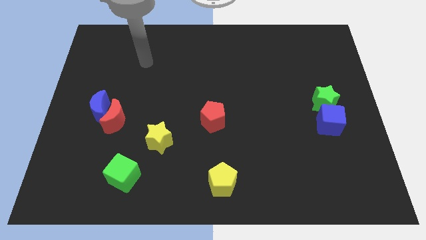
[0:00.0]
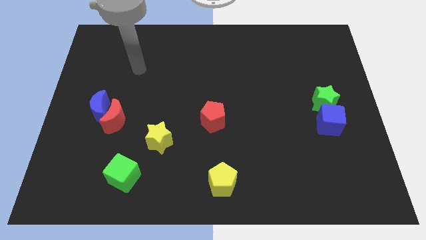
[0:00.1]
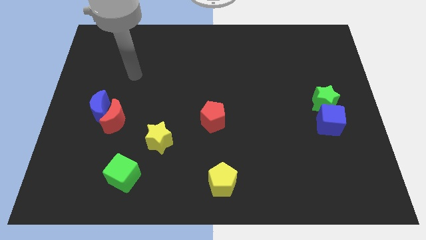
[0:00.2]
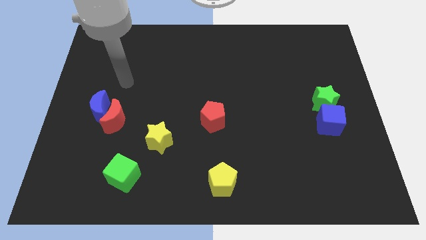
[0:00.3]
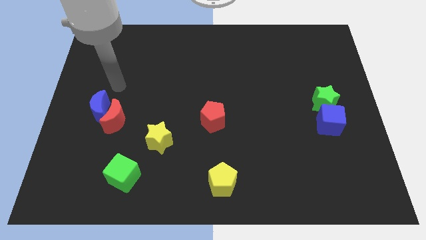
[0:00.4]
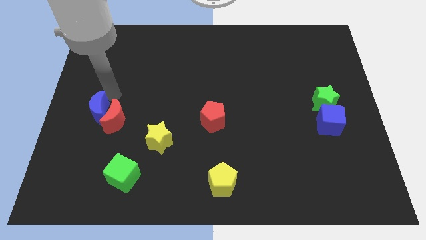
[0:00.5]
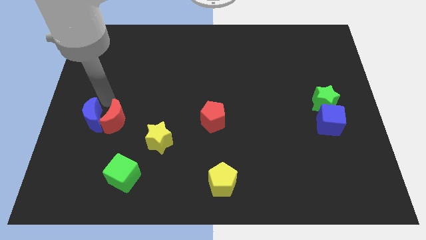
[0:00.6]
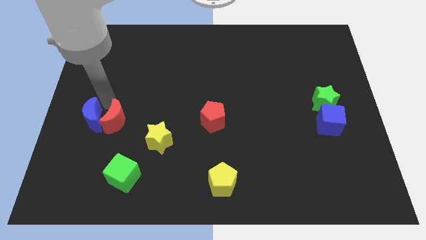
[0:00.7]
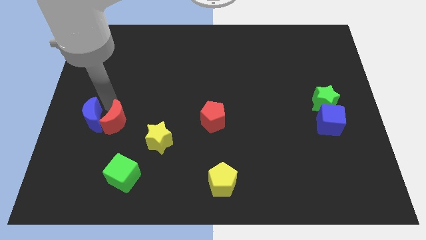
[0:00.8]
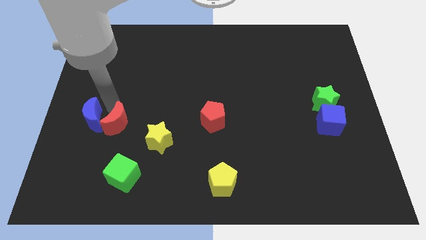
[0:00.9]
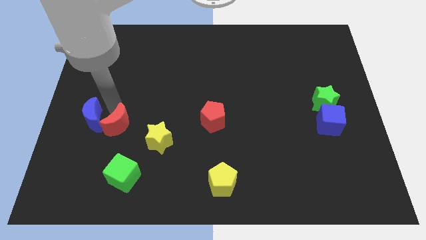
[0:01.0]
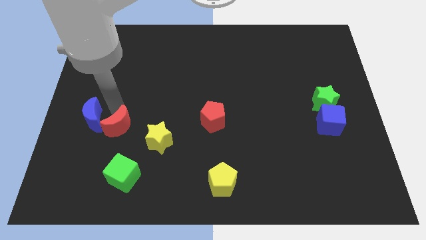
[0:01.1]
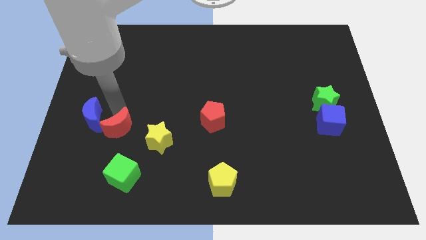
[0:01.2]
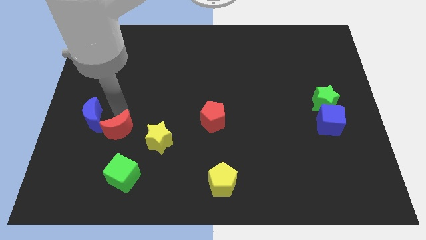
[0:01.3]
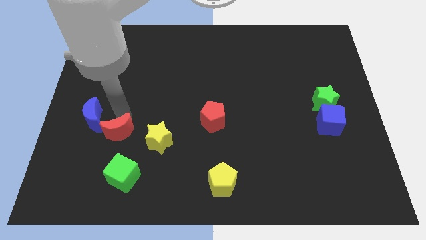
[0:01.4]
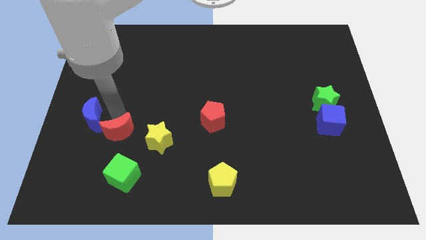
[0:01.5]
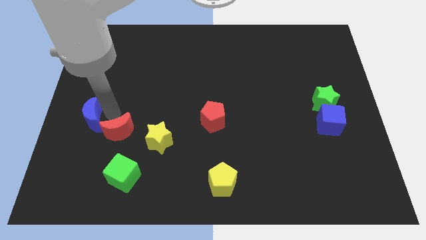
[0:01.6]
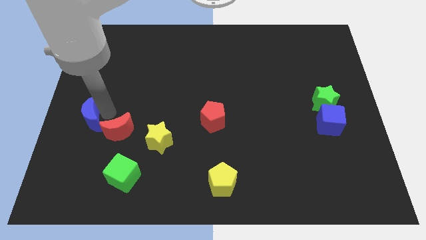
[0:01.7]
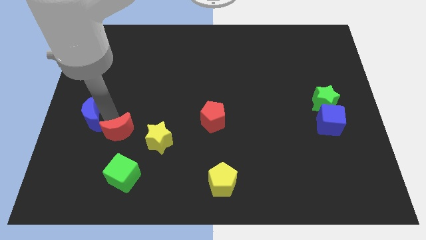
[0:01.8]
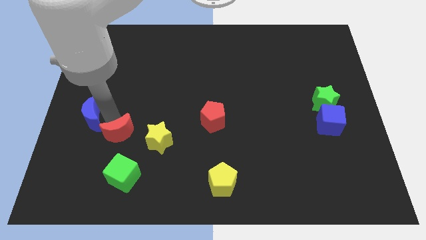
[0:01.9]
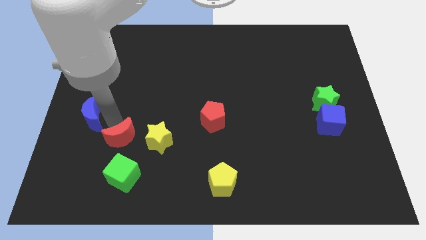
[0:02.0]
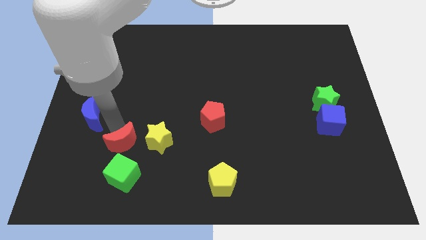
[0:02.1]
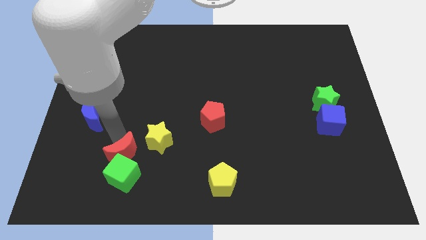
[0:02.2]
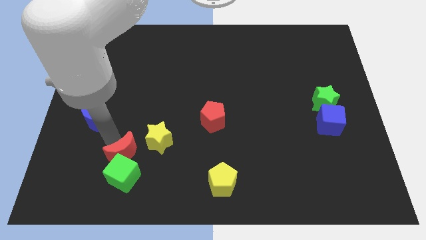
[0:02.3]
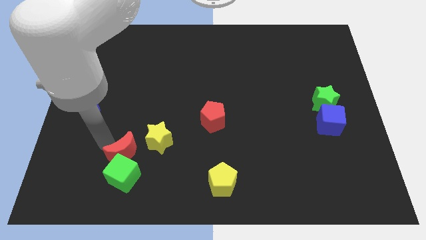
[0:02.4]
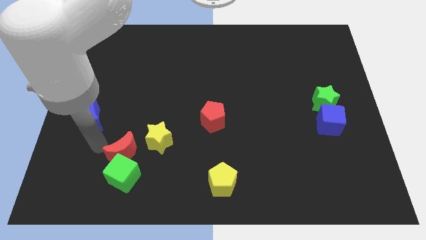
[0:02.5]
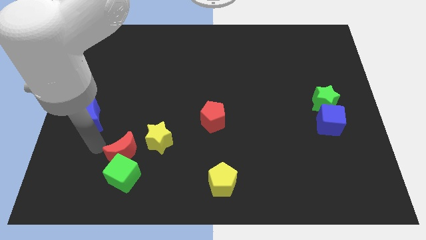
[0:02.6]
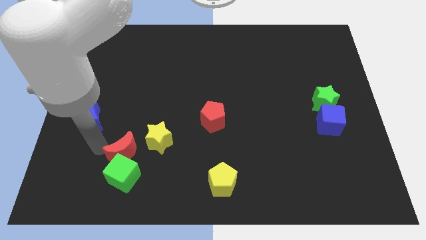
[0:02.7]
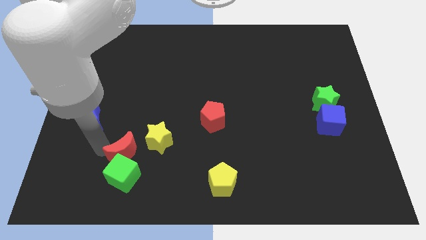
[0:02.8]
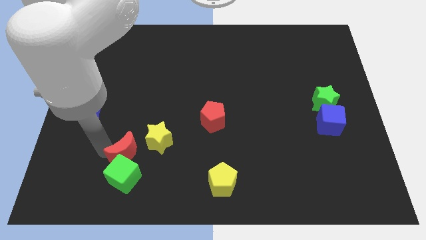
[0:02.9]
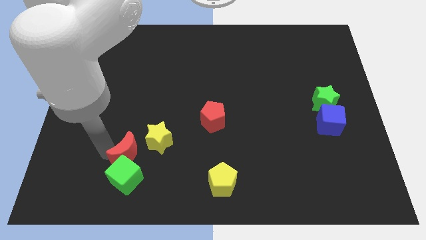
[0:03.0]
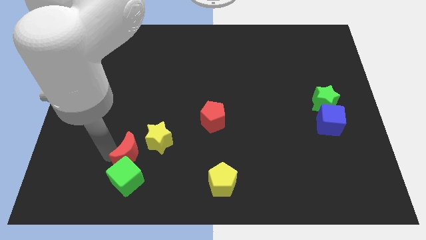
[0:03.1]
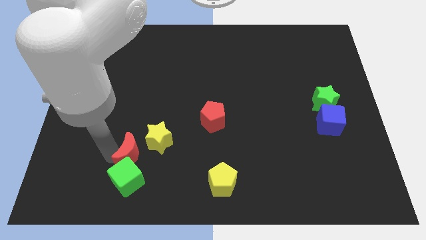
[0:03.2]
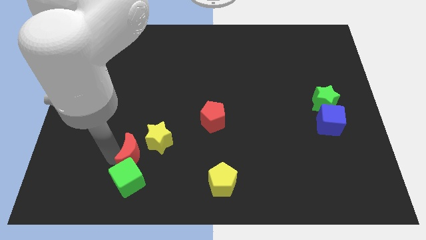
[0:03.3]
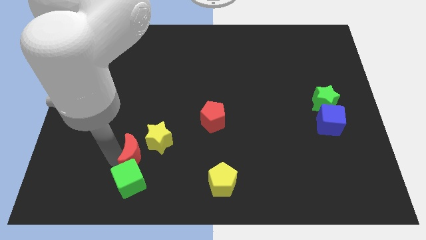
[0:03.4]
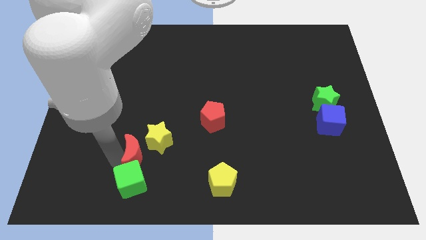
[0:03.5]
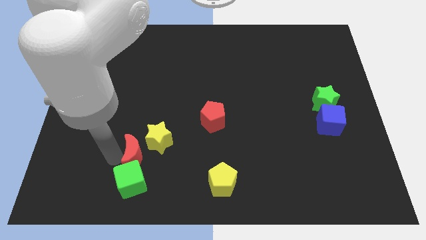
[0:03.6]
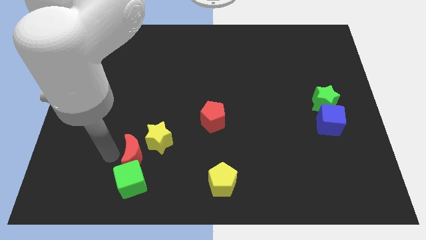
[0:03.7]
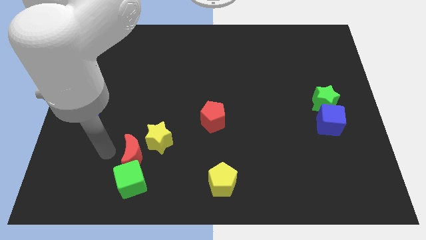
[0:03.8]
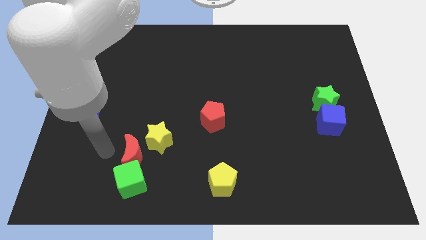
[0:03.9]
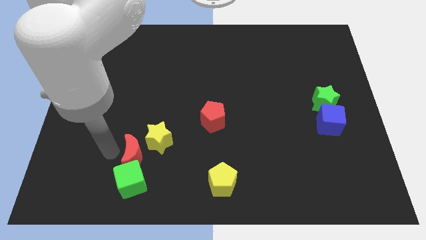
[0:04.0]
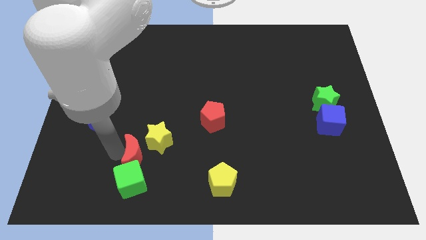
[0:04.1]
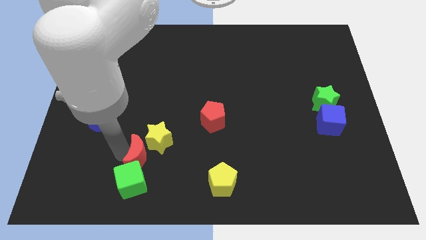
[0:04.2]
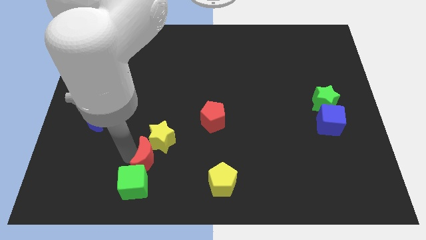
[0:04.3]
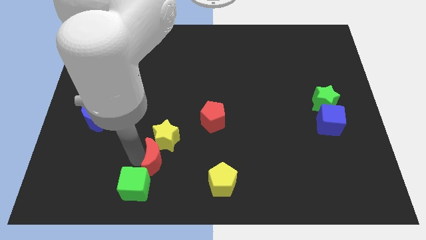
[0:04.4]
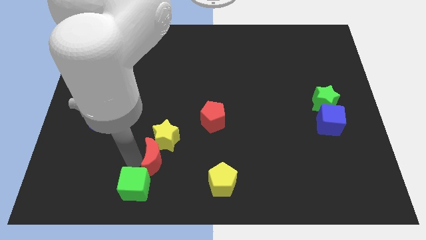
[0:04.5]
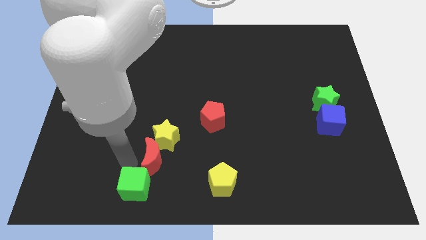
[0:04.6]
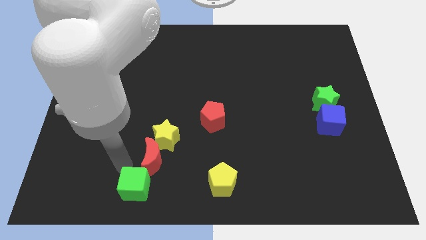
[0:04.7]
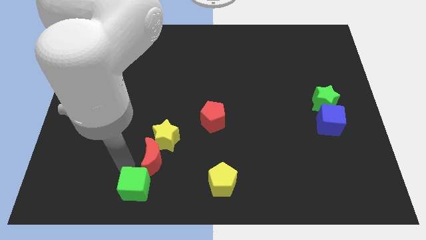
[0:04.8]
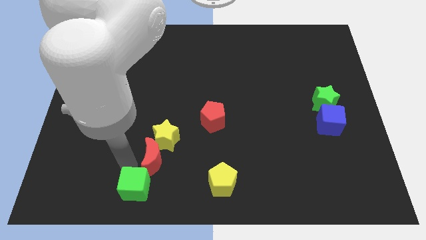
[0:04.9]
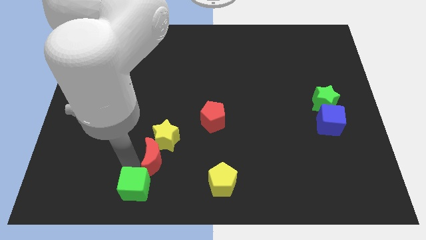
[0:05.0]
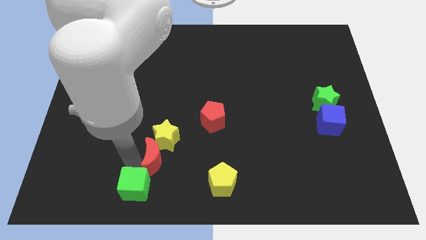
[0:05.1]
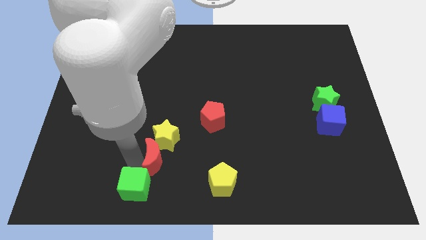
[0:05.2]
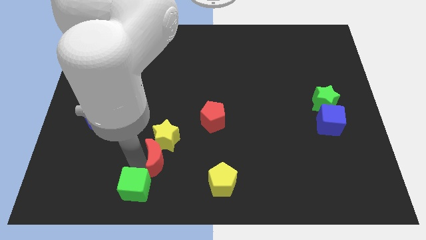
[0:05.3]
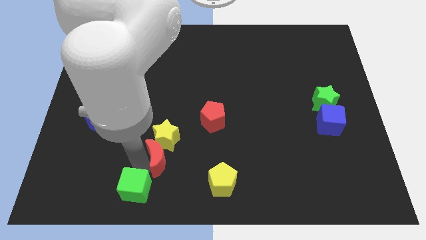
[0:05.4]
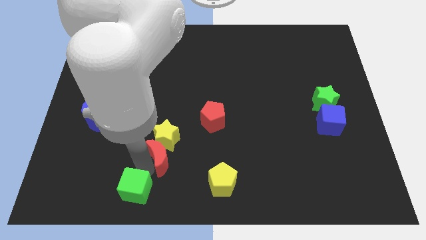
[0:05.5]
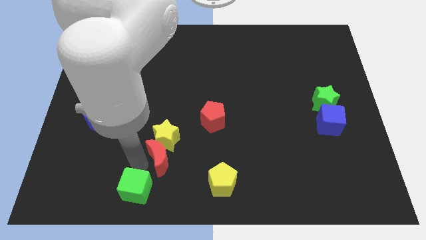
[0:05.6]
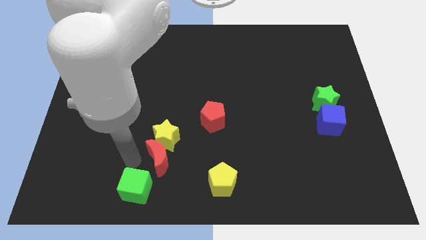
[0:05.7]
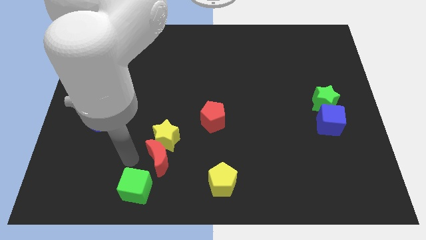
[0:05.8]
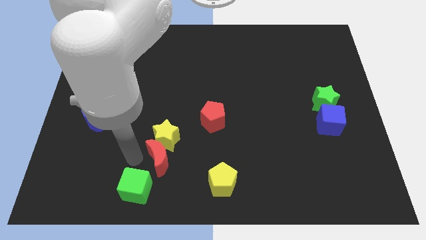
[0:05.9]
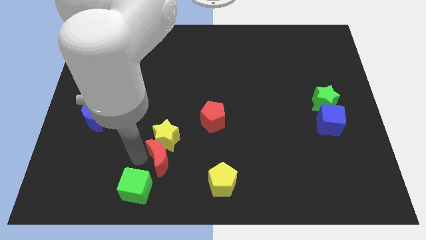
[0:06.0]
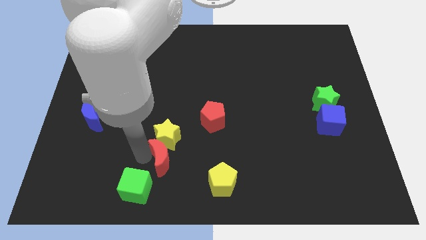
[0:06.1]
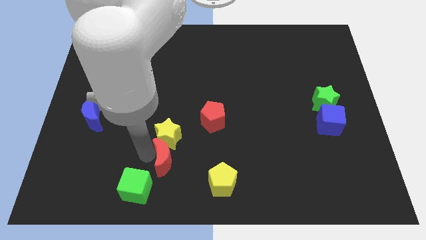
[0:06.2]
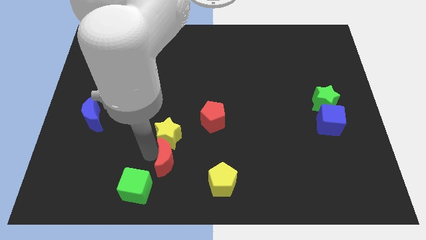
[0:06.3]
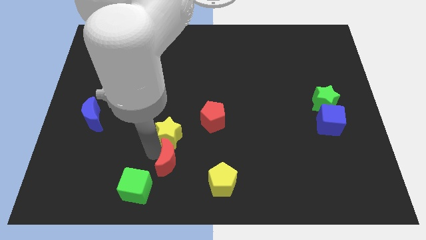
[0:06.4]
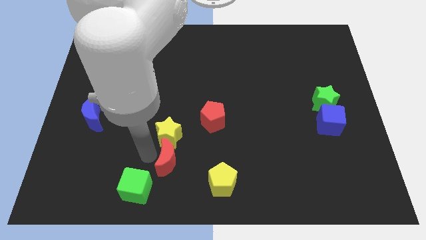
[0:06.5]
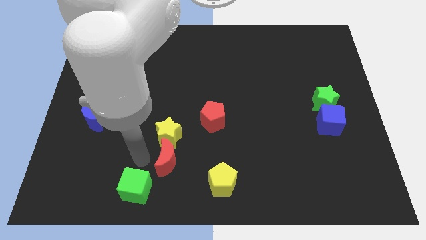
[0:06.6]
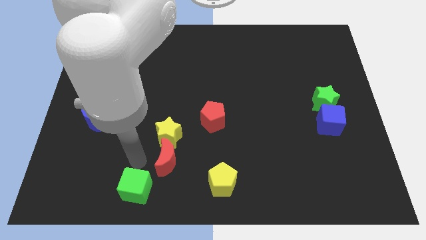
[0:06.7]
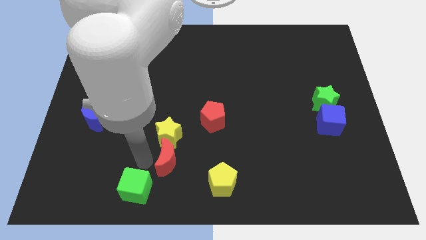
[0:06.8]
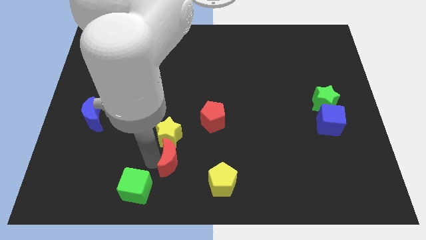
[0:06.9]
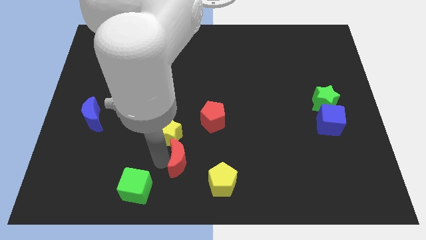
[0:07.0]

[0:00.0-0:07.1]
push the red moon to the top left of the yellow pentagon

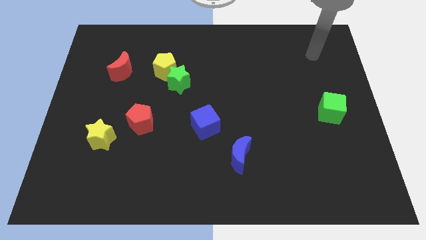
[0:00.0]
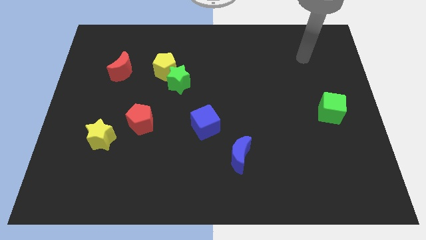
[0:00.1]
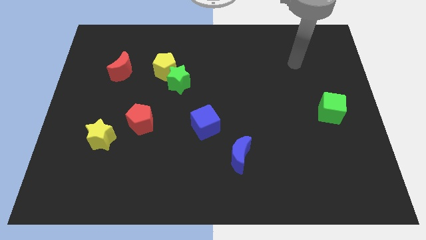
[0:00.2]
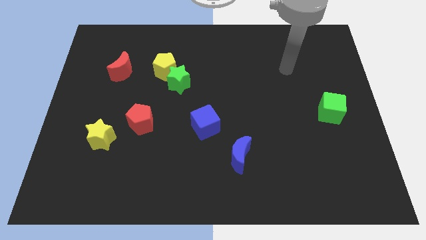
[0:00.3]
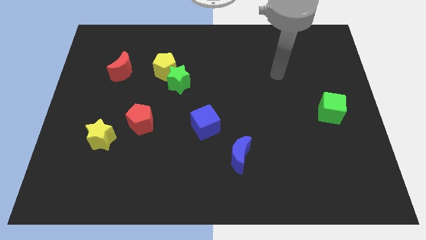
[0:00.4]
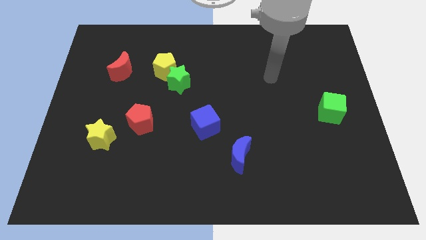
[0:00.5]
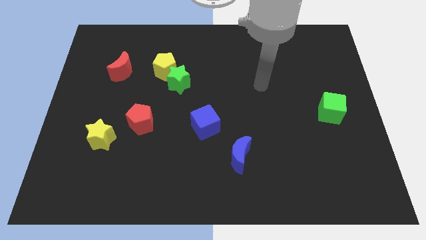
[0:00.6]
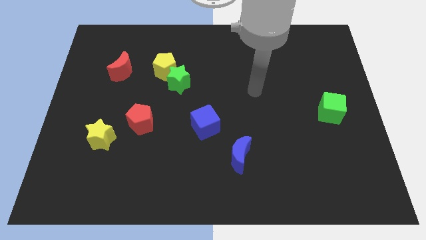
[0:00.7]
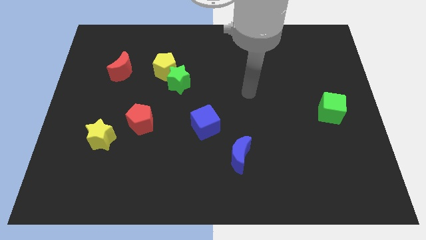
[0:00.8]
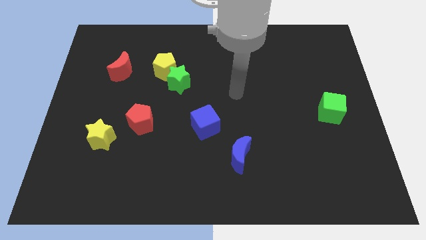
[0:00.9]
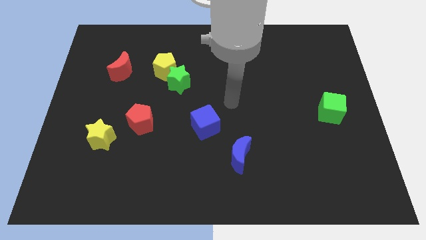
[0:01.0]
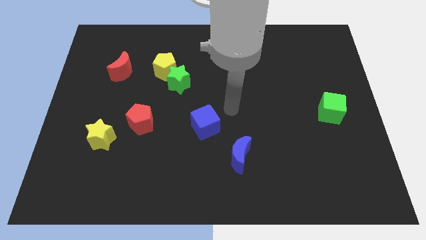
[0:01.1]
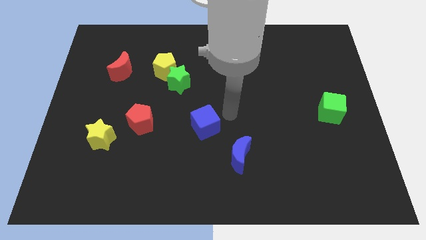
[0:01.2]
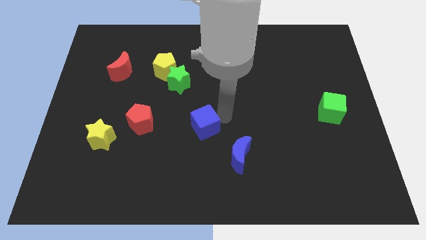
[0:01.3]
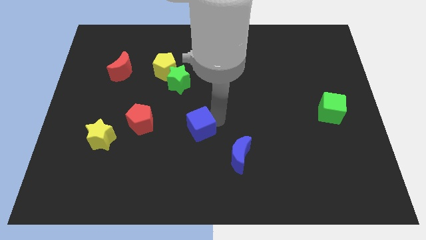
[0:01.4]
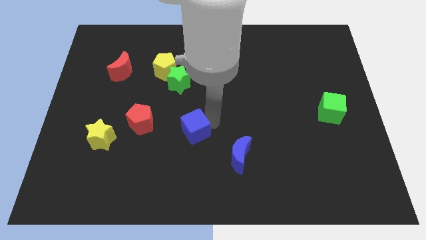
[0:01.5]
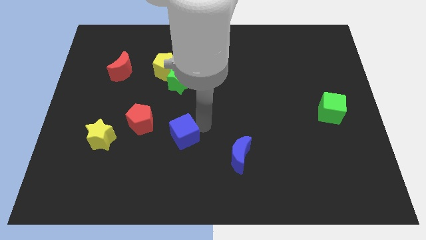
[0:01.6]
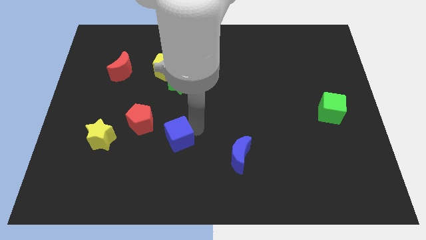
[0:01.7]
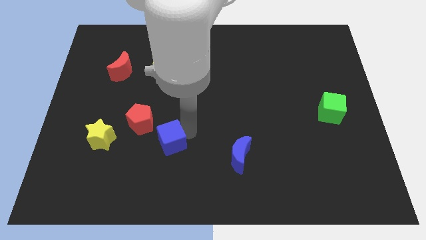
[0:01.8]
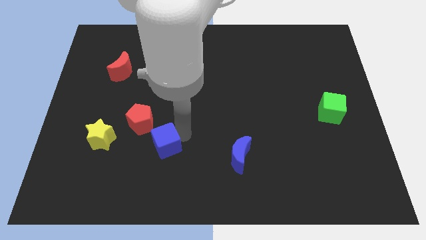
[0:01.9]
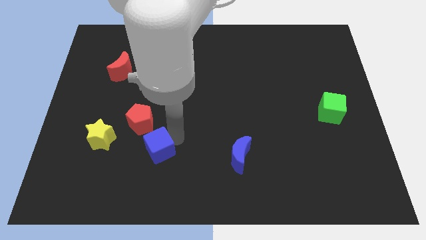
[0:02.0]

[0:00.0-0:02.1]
move the blue cube to the bottom of the red pentagon
